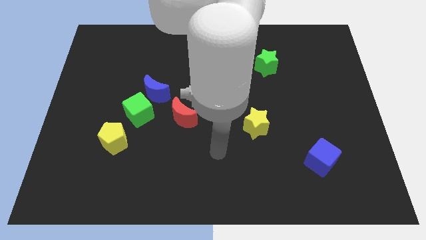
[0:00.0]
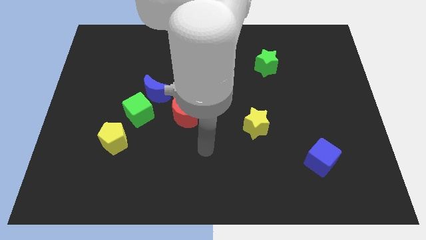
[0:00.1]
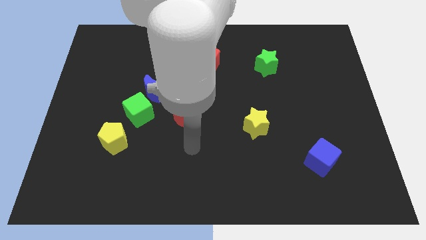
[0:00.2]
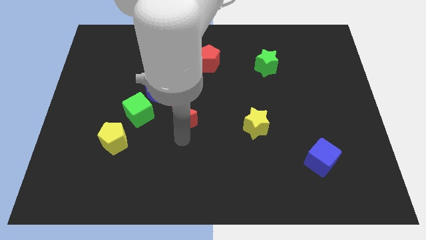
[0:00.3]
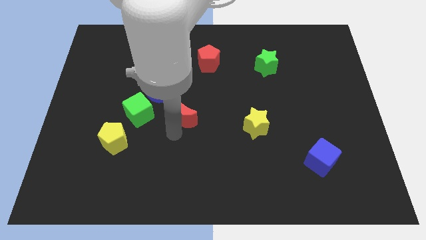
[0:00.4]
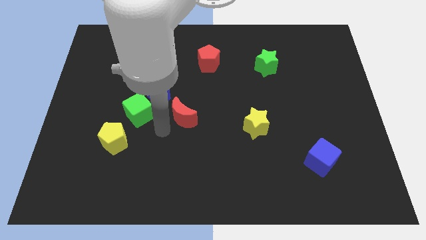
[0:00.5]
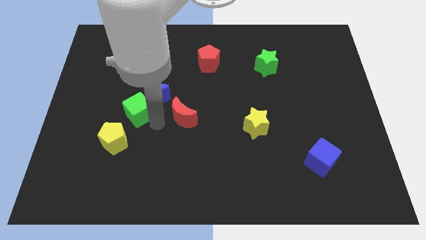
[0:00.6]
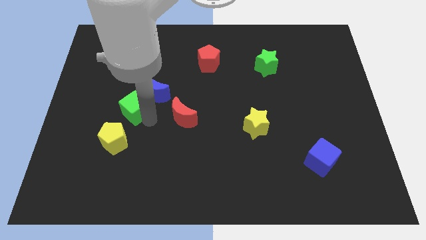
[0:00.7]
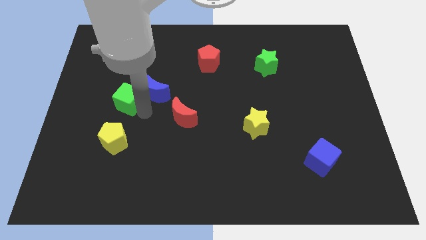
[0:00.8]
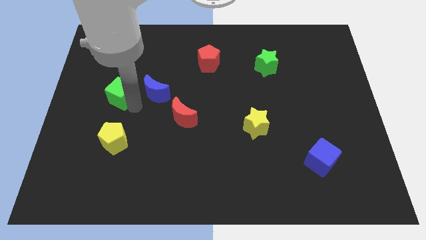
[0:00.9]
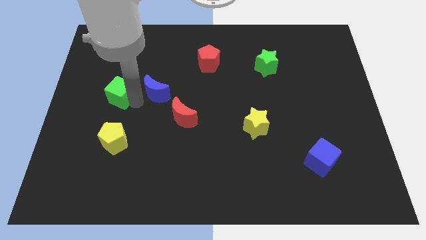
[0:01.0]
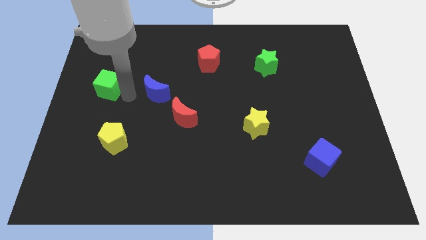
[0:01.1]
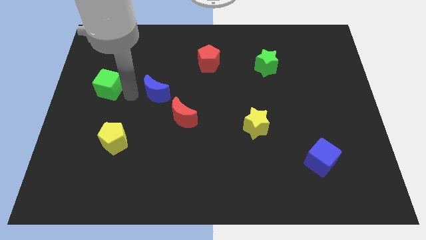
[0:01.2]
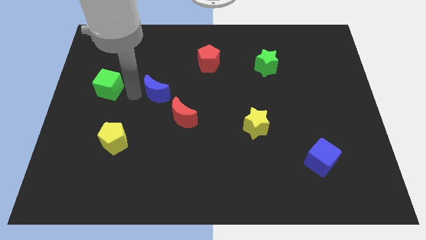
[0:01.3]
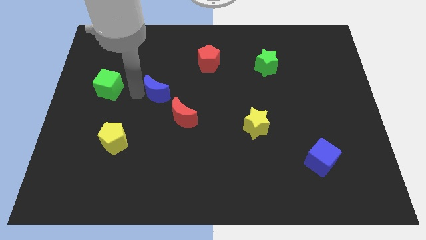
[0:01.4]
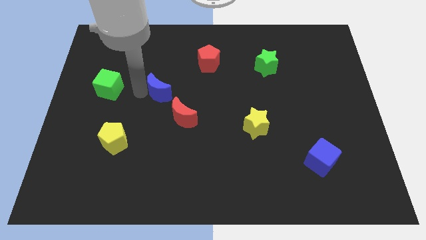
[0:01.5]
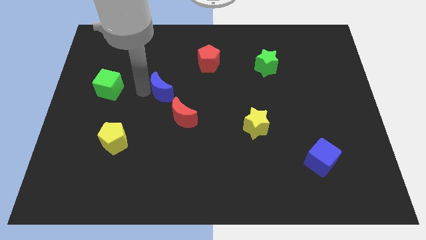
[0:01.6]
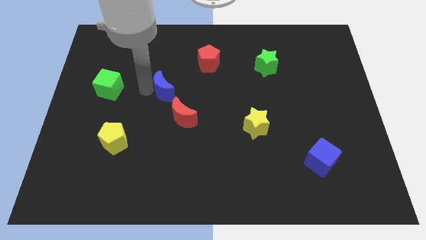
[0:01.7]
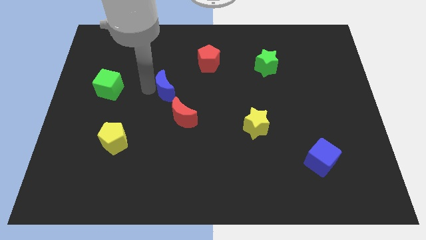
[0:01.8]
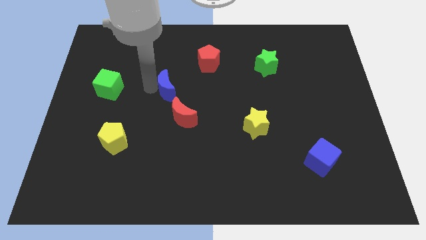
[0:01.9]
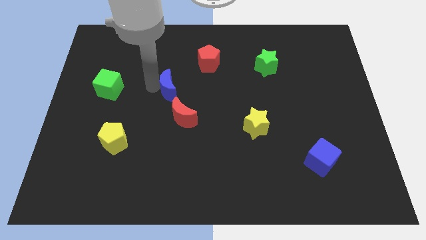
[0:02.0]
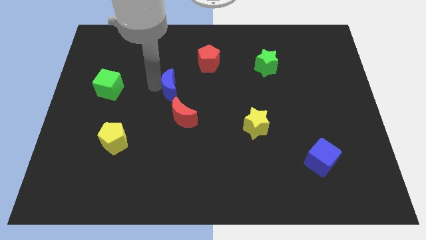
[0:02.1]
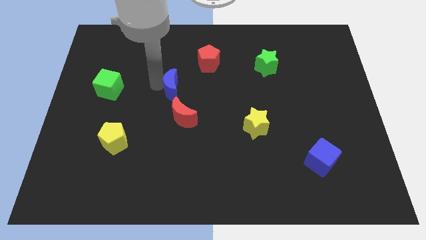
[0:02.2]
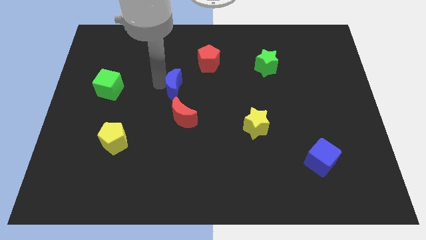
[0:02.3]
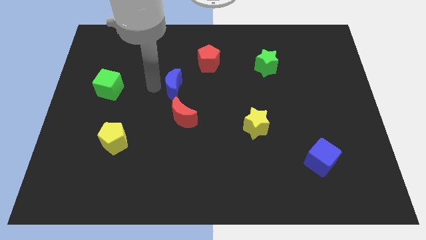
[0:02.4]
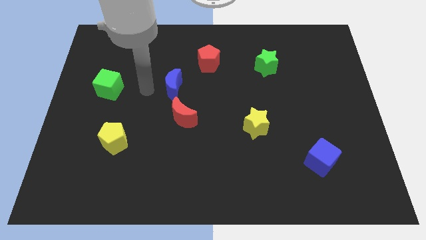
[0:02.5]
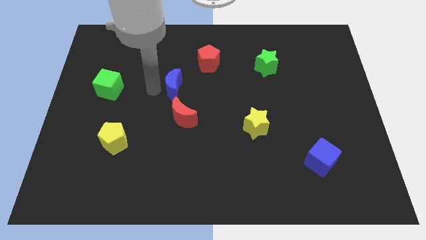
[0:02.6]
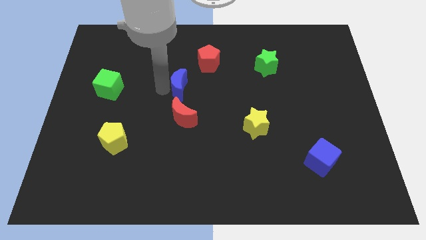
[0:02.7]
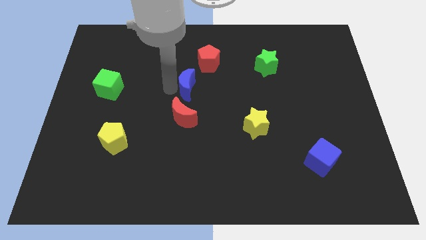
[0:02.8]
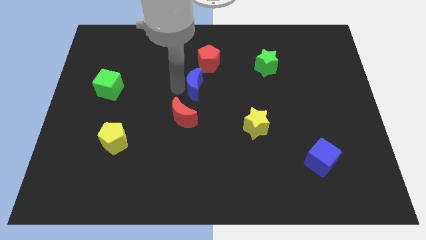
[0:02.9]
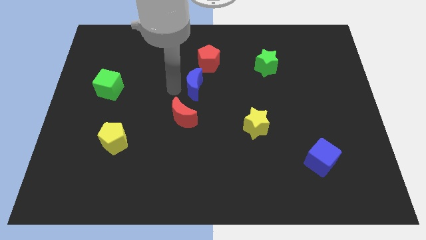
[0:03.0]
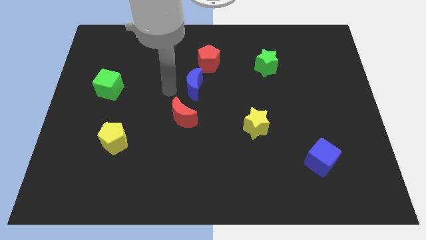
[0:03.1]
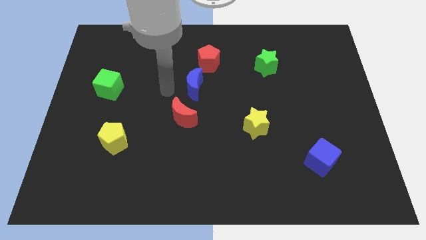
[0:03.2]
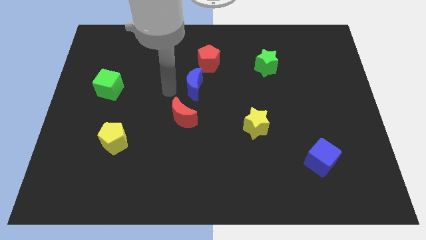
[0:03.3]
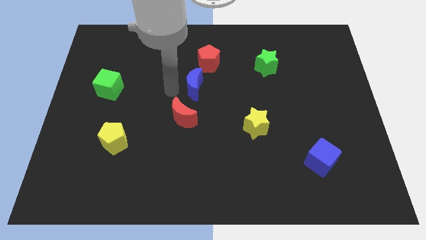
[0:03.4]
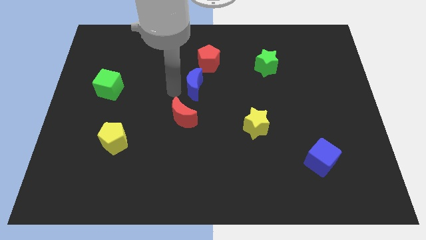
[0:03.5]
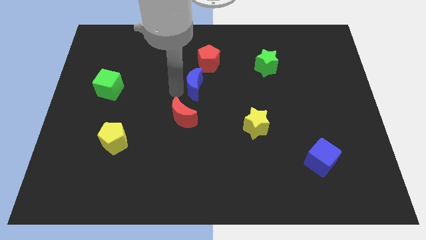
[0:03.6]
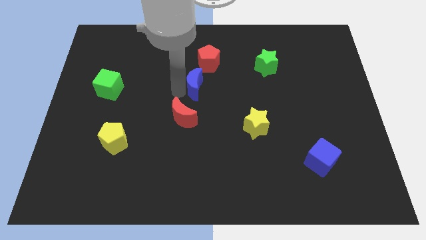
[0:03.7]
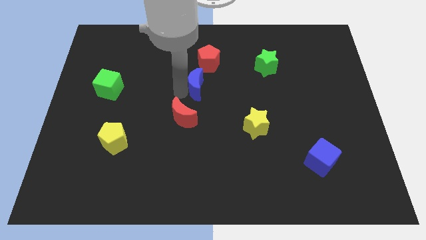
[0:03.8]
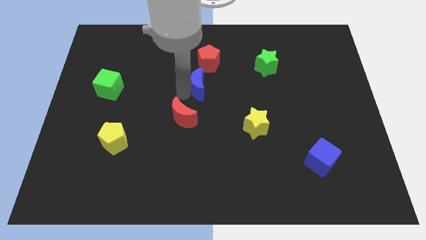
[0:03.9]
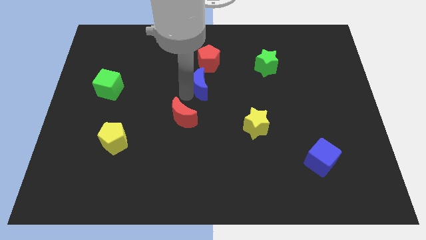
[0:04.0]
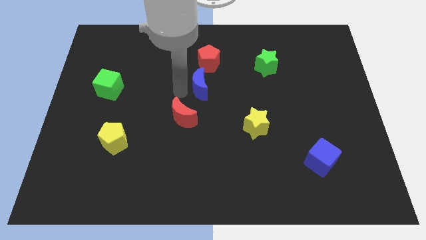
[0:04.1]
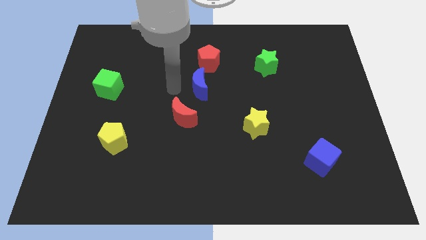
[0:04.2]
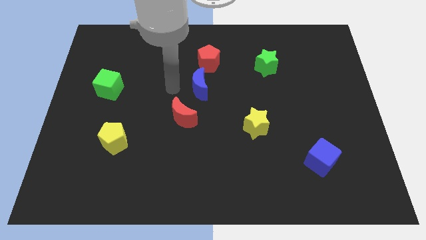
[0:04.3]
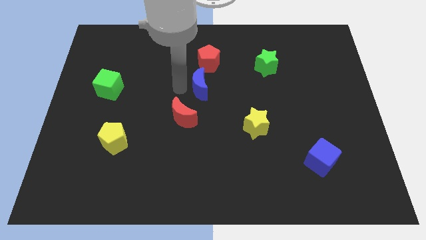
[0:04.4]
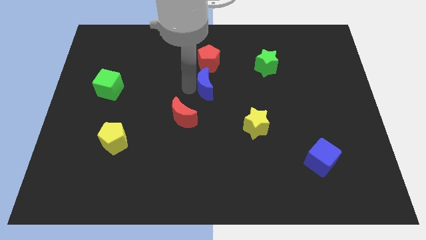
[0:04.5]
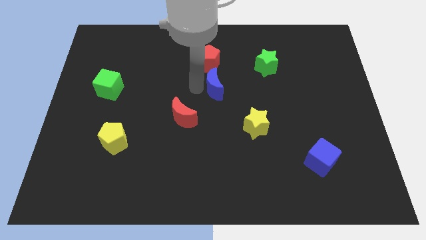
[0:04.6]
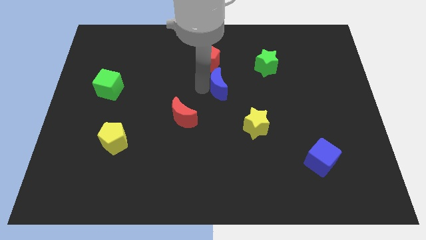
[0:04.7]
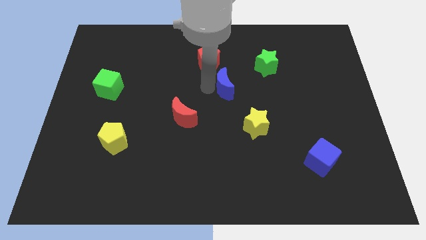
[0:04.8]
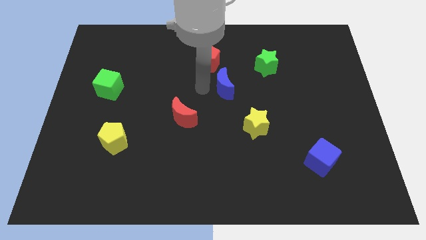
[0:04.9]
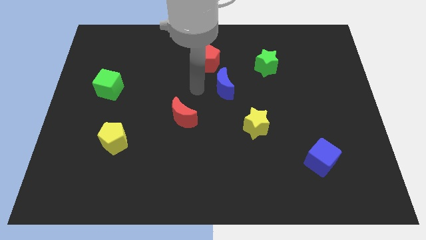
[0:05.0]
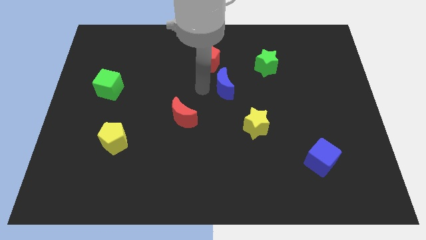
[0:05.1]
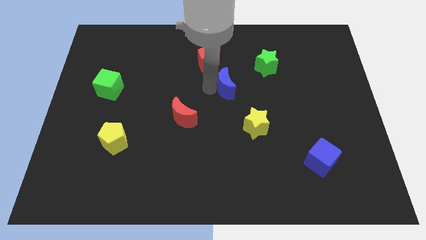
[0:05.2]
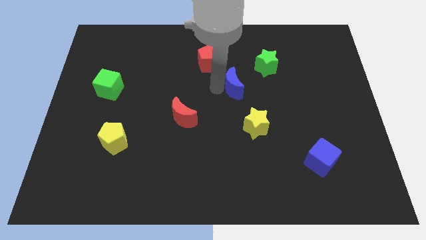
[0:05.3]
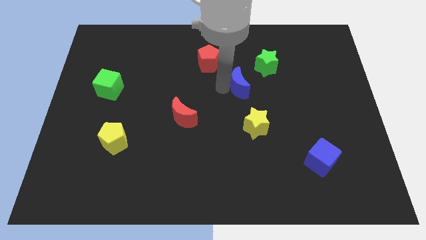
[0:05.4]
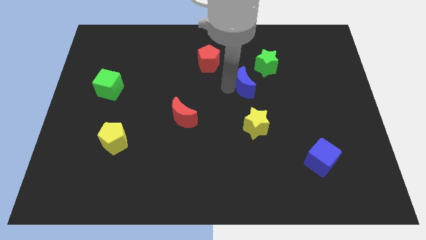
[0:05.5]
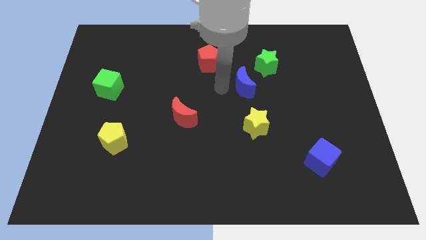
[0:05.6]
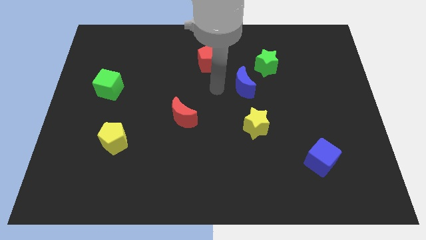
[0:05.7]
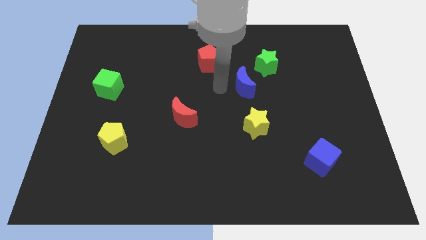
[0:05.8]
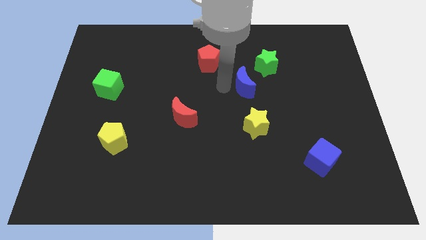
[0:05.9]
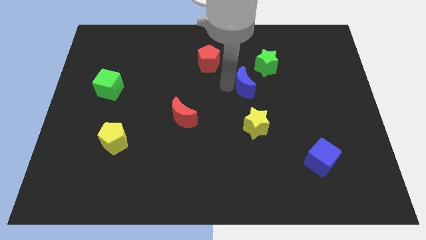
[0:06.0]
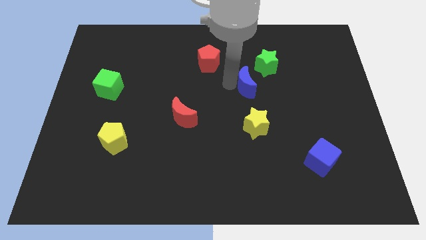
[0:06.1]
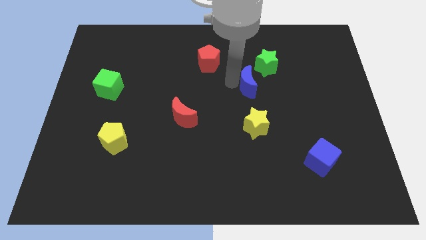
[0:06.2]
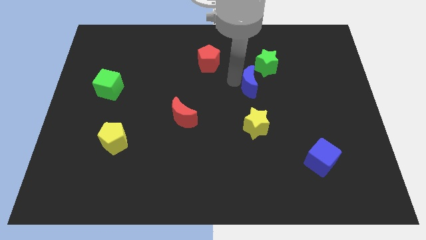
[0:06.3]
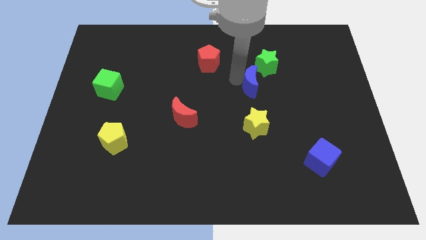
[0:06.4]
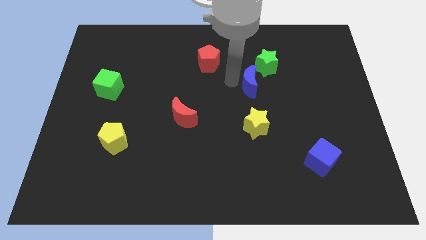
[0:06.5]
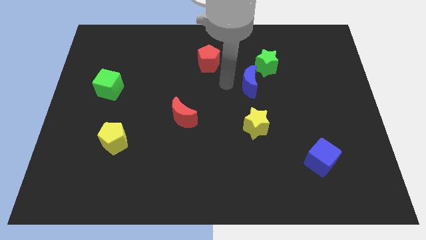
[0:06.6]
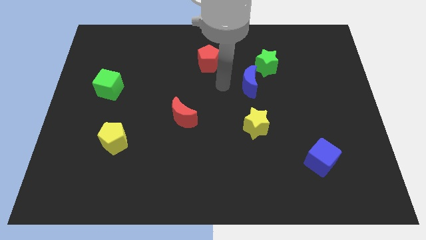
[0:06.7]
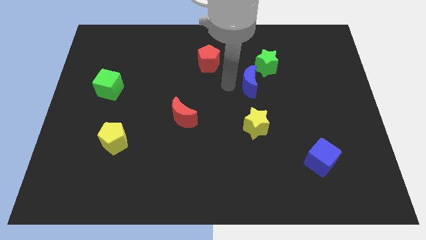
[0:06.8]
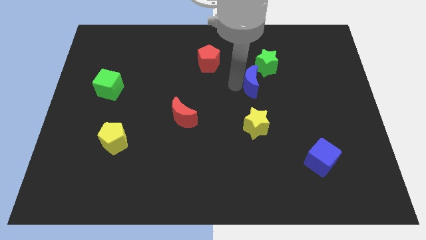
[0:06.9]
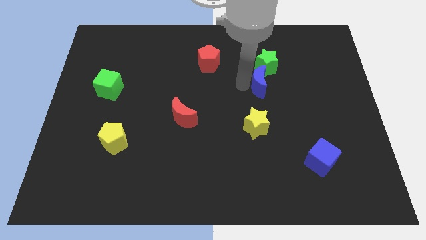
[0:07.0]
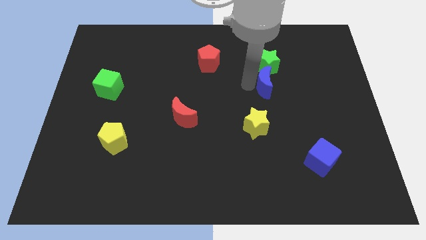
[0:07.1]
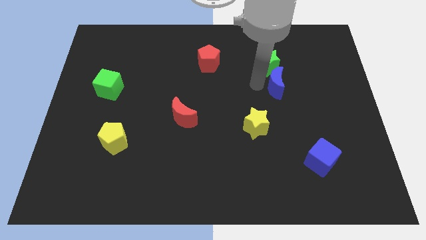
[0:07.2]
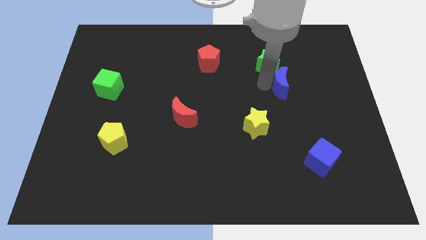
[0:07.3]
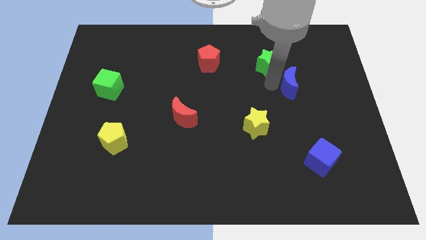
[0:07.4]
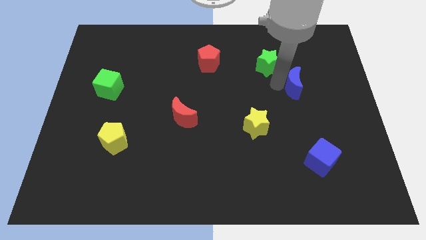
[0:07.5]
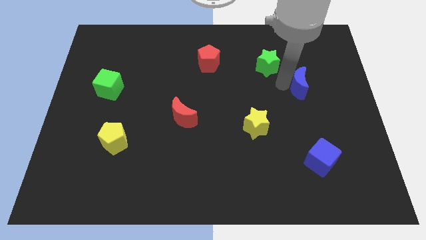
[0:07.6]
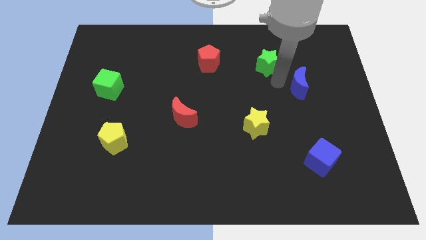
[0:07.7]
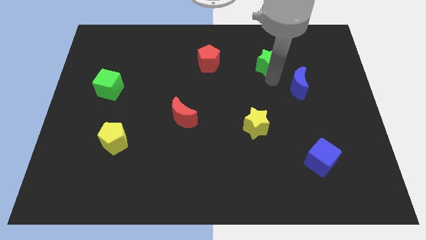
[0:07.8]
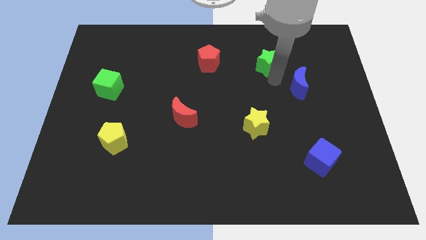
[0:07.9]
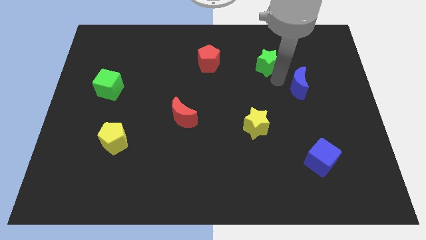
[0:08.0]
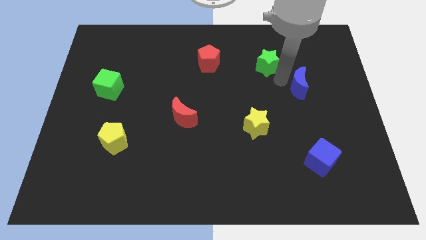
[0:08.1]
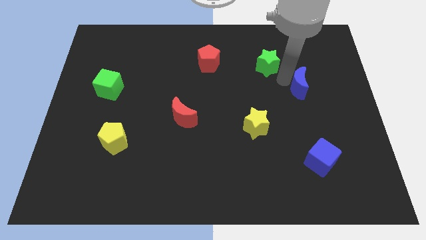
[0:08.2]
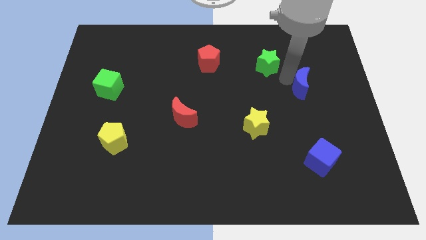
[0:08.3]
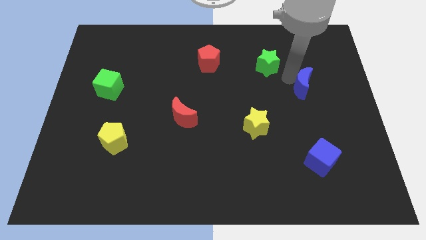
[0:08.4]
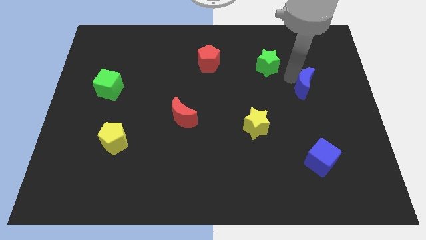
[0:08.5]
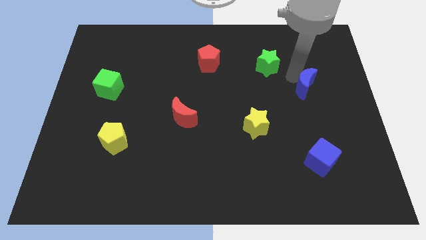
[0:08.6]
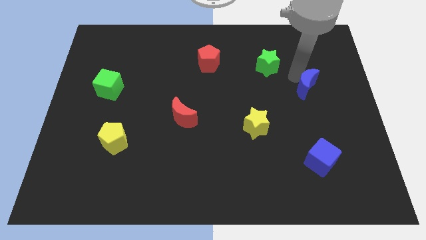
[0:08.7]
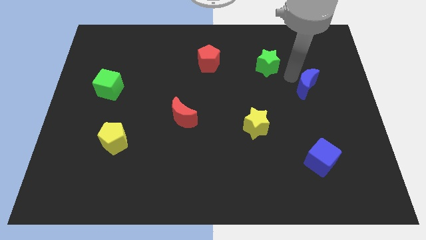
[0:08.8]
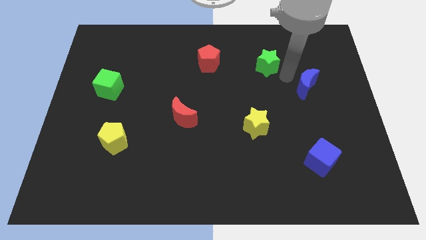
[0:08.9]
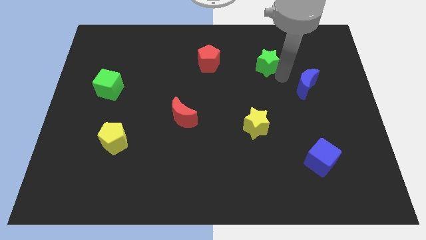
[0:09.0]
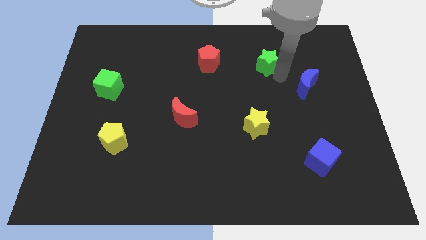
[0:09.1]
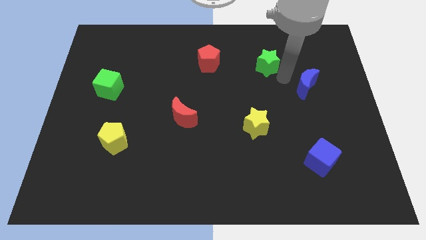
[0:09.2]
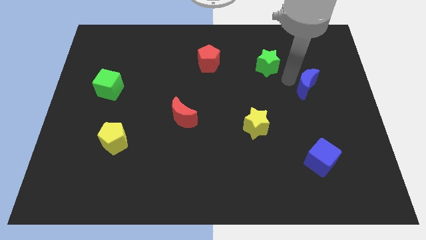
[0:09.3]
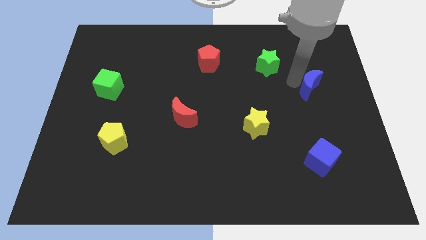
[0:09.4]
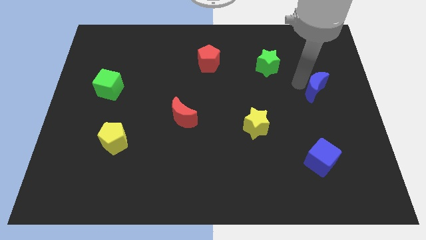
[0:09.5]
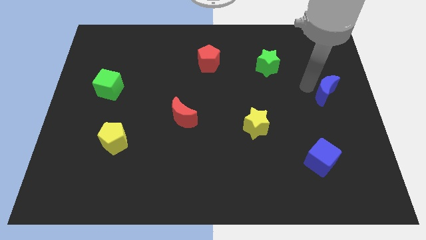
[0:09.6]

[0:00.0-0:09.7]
move the blue moon to the right side
